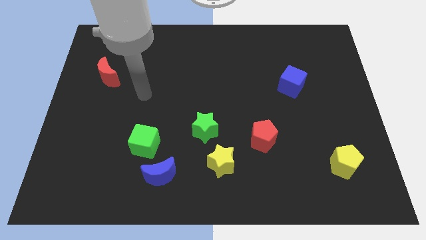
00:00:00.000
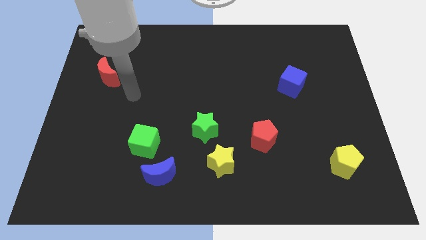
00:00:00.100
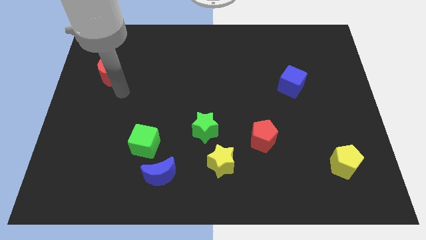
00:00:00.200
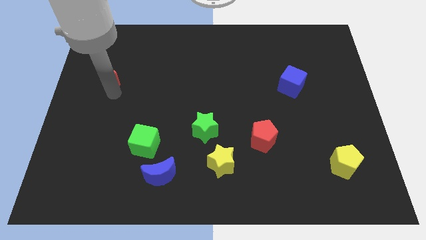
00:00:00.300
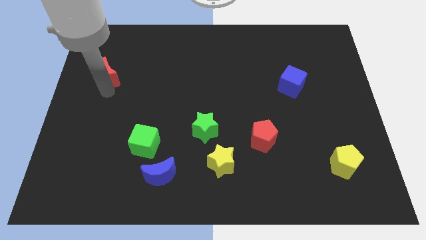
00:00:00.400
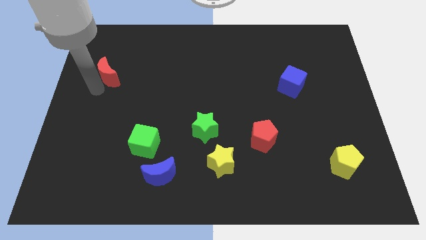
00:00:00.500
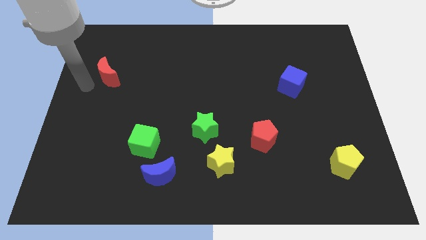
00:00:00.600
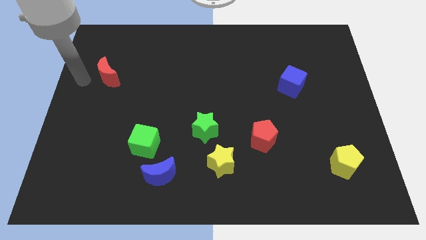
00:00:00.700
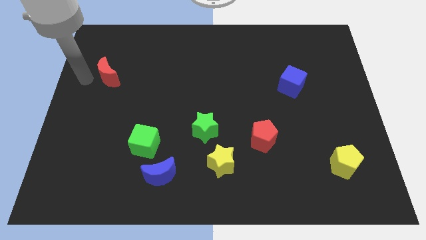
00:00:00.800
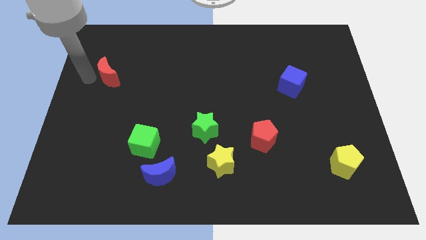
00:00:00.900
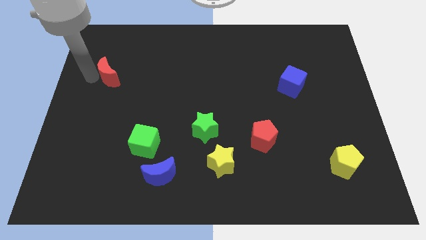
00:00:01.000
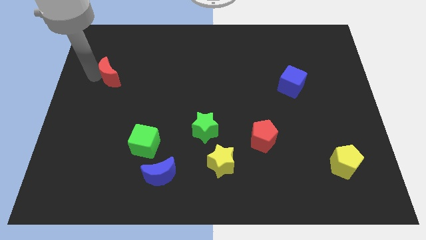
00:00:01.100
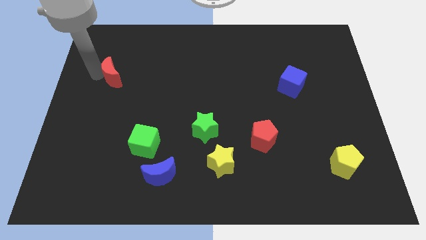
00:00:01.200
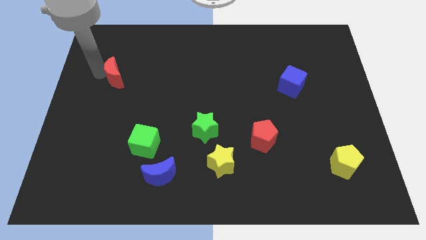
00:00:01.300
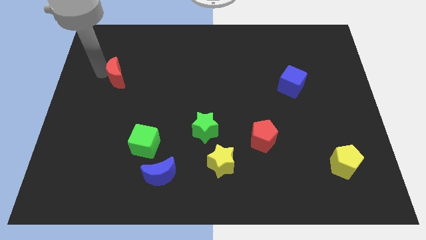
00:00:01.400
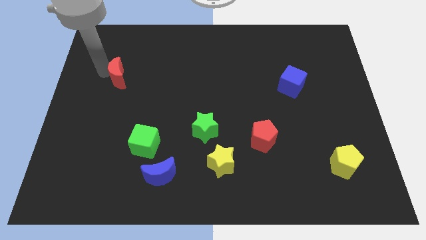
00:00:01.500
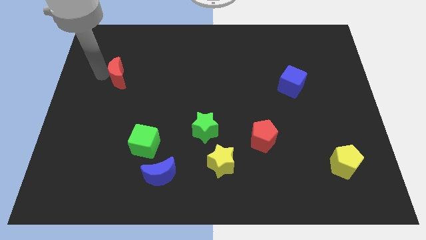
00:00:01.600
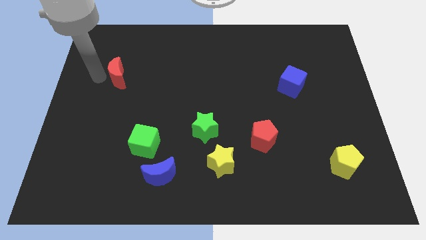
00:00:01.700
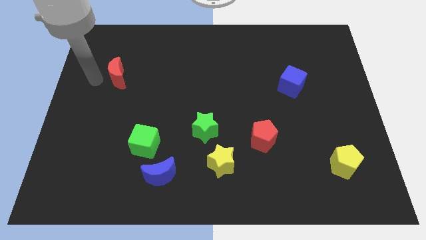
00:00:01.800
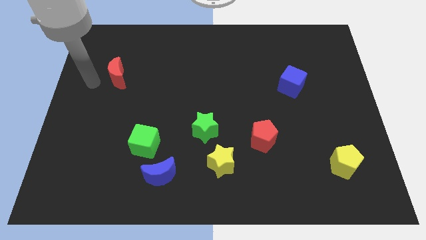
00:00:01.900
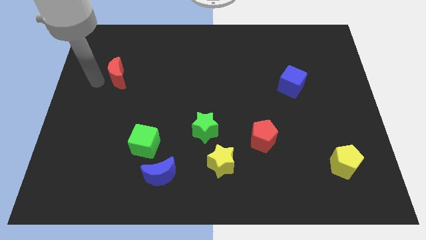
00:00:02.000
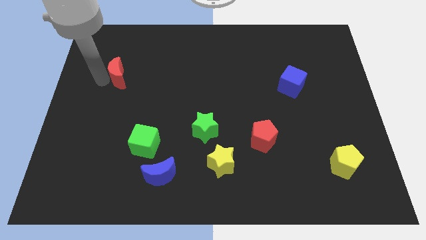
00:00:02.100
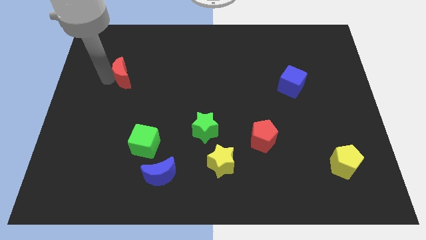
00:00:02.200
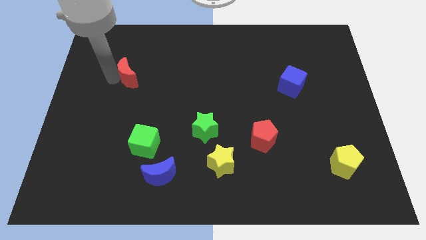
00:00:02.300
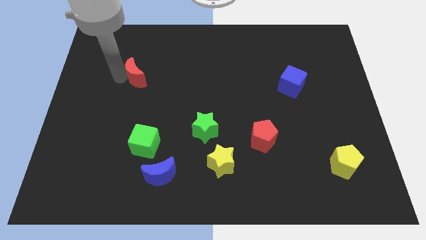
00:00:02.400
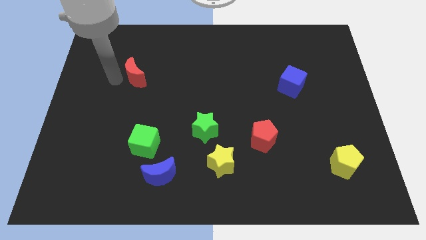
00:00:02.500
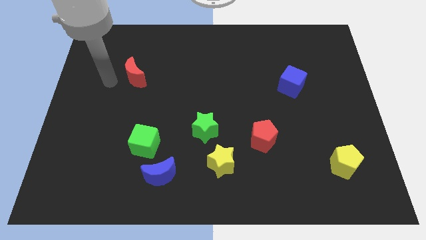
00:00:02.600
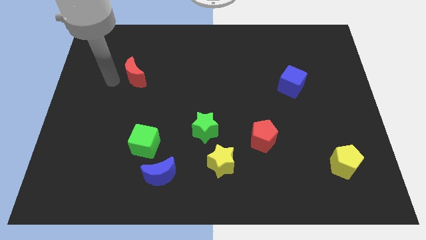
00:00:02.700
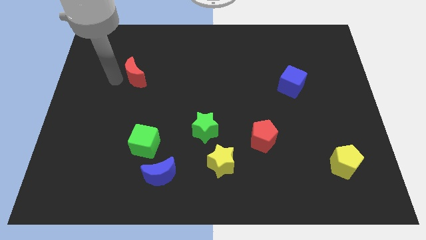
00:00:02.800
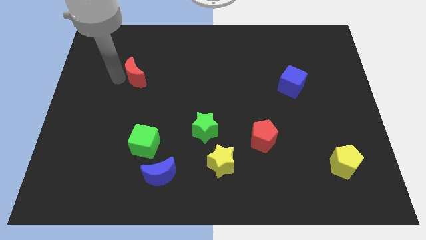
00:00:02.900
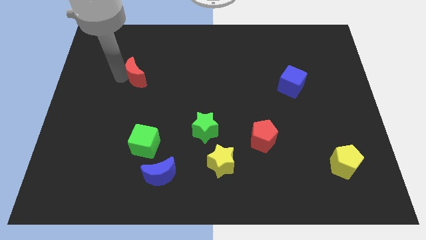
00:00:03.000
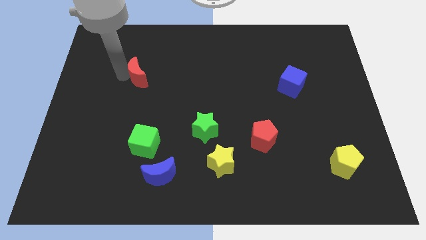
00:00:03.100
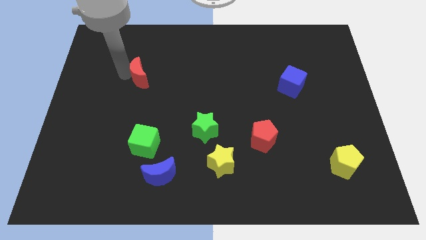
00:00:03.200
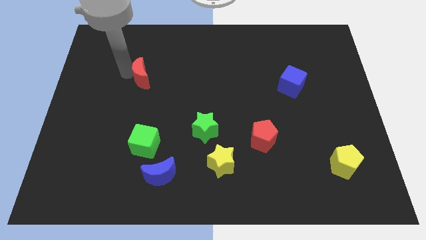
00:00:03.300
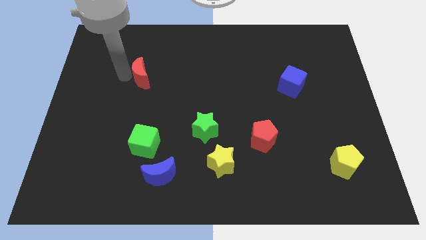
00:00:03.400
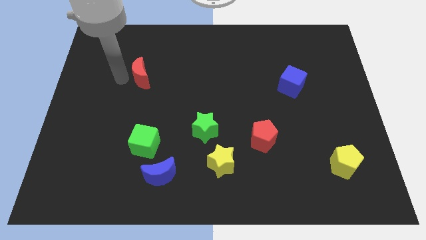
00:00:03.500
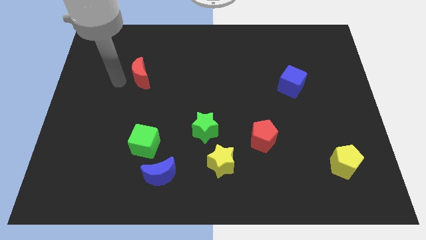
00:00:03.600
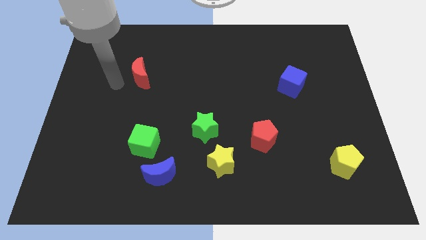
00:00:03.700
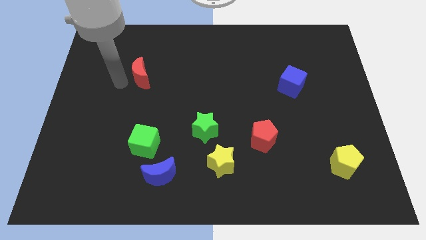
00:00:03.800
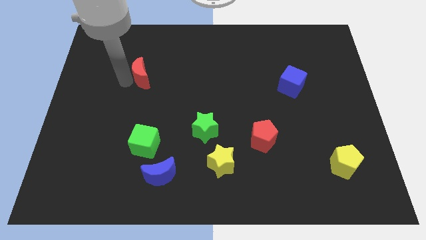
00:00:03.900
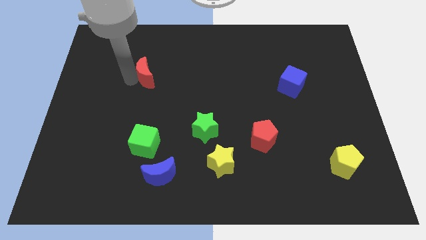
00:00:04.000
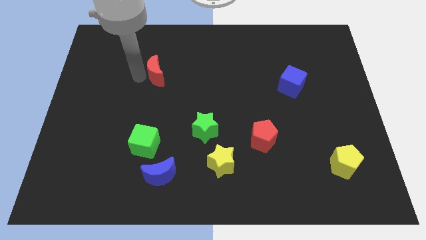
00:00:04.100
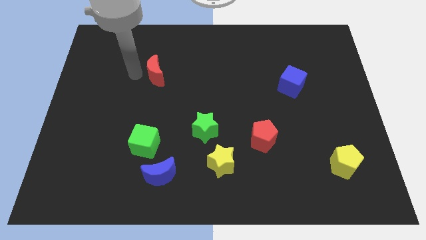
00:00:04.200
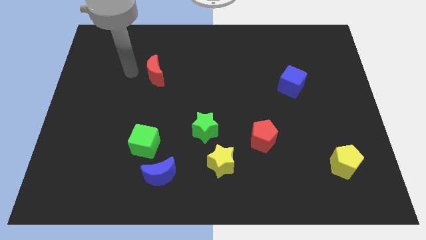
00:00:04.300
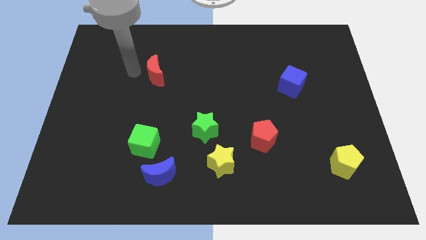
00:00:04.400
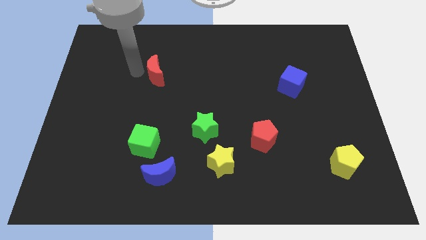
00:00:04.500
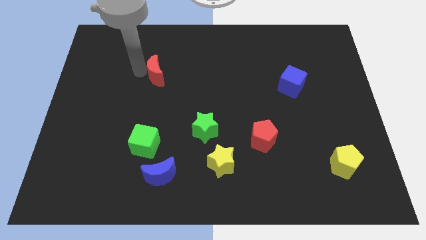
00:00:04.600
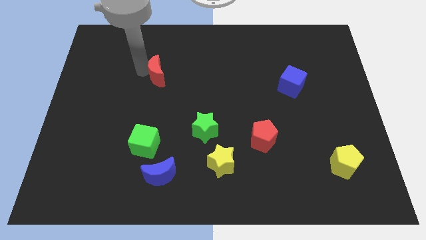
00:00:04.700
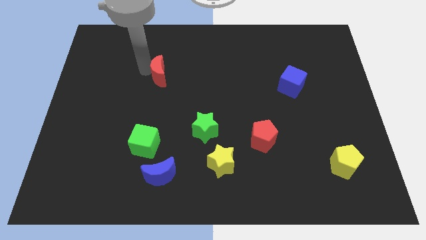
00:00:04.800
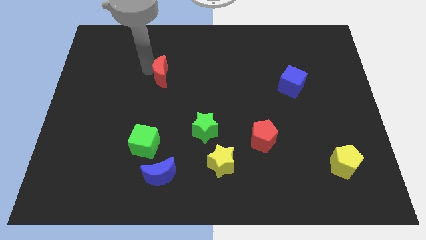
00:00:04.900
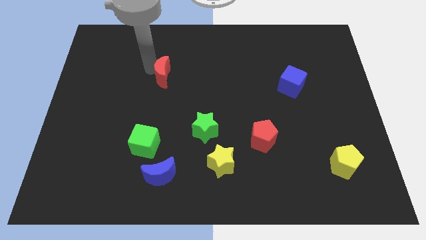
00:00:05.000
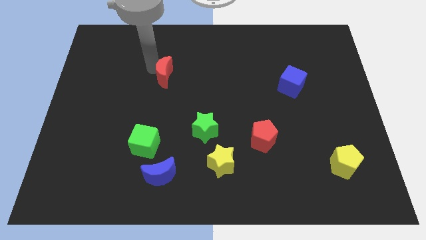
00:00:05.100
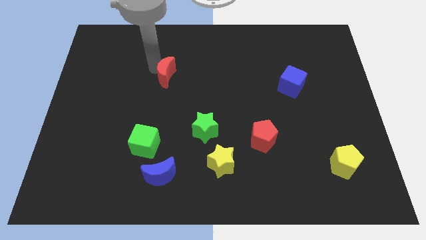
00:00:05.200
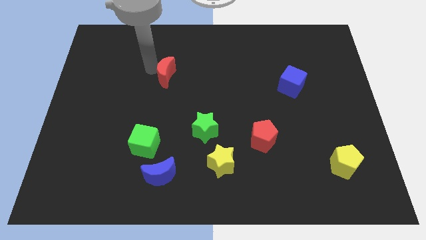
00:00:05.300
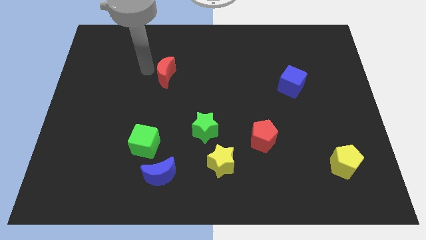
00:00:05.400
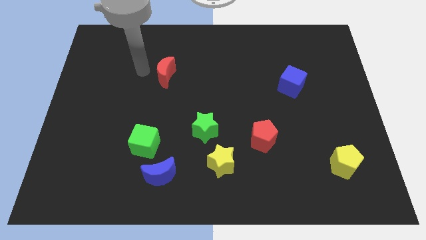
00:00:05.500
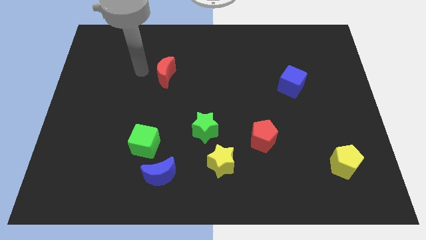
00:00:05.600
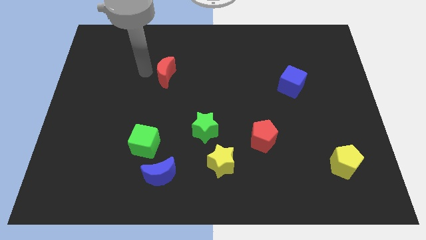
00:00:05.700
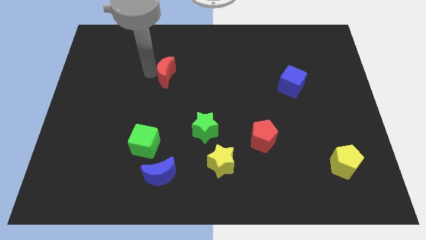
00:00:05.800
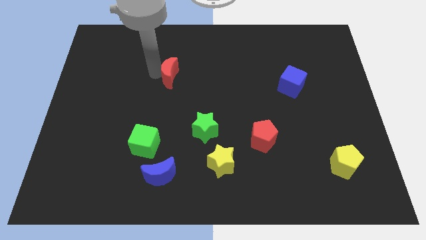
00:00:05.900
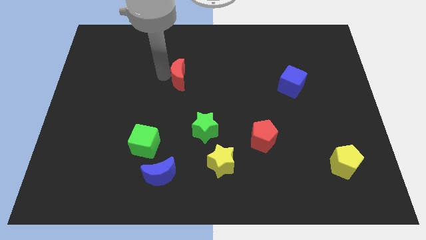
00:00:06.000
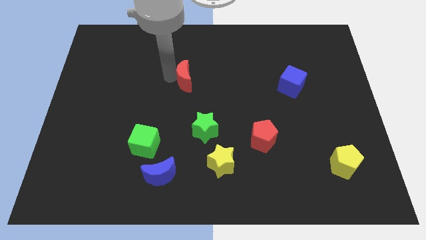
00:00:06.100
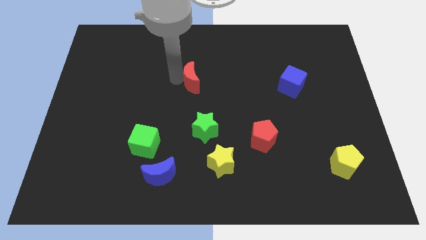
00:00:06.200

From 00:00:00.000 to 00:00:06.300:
slide the red moon to the right

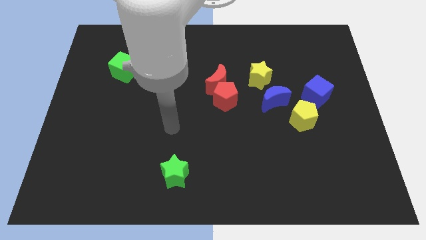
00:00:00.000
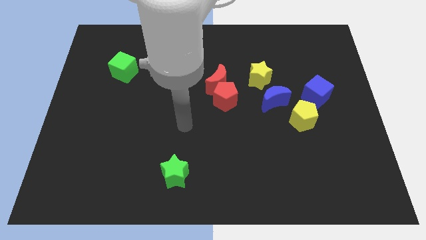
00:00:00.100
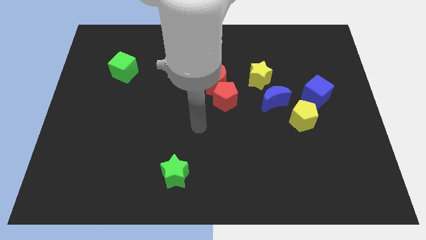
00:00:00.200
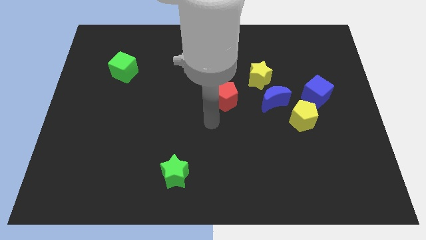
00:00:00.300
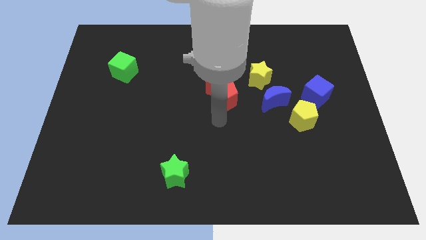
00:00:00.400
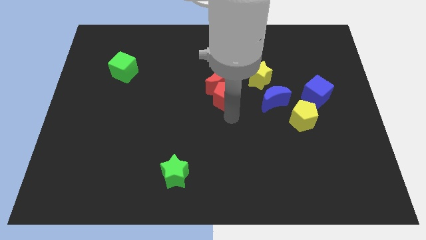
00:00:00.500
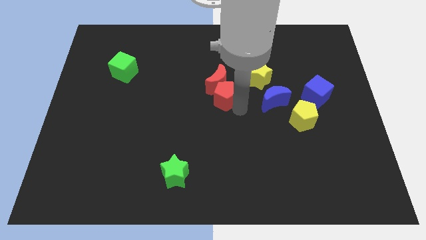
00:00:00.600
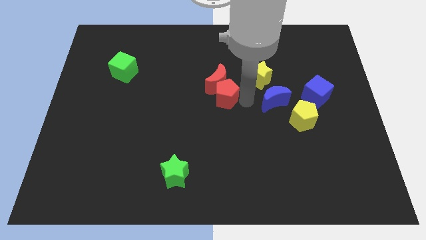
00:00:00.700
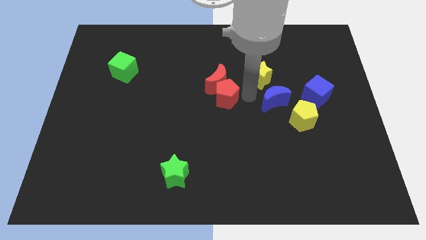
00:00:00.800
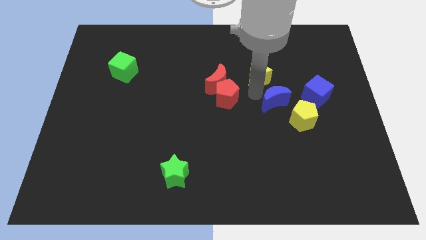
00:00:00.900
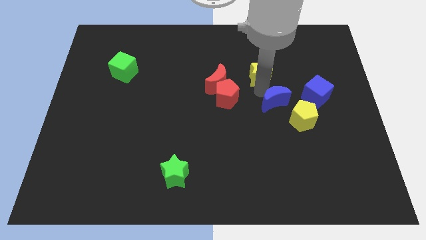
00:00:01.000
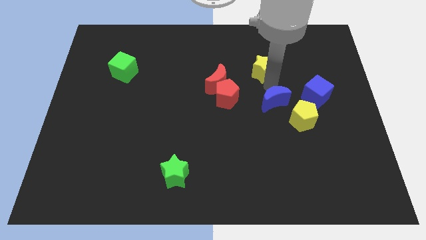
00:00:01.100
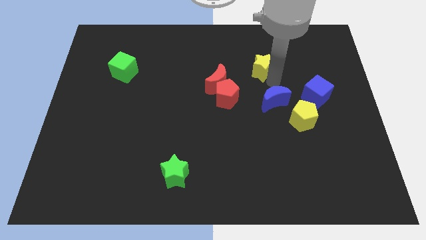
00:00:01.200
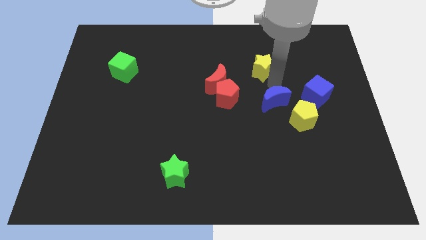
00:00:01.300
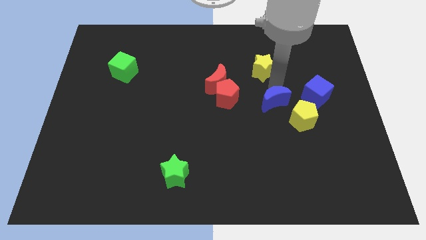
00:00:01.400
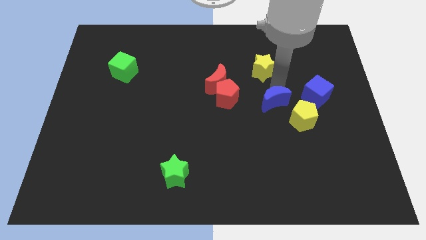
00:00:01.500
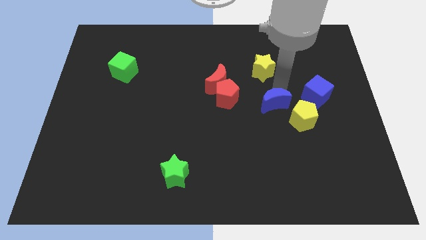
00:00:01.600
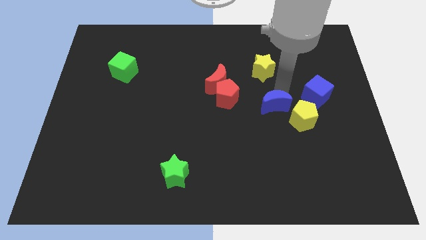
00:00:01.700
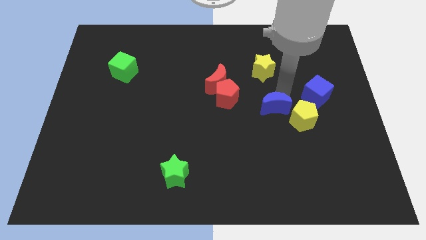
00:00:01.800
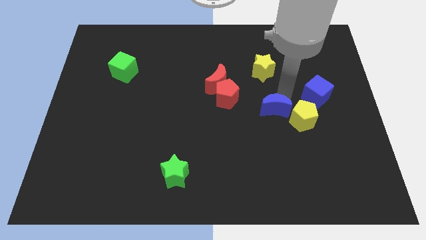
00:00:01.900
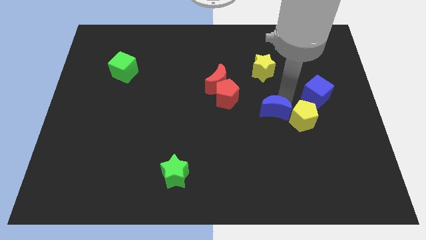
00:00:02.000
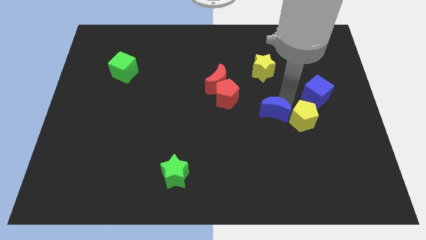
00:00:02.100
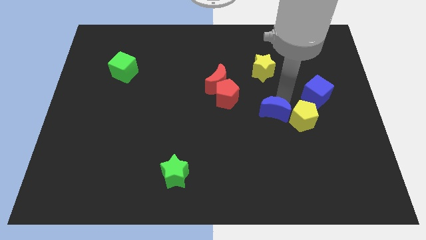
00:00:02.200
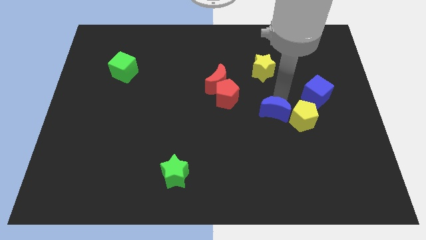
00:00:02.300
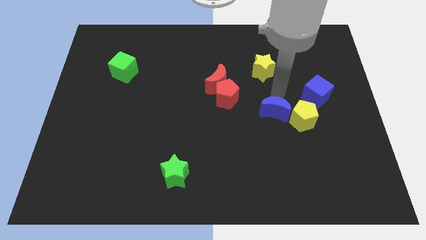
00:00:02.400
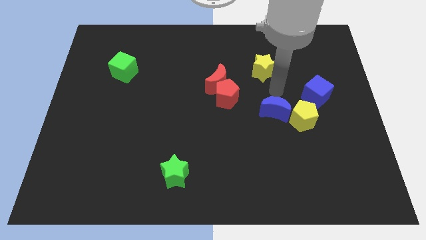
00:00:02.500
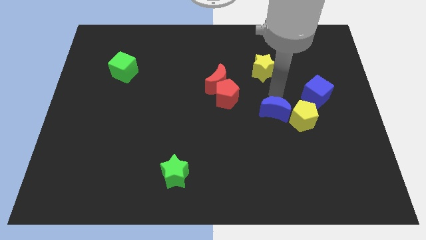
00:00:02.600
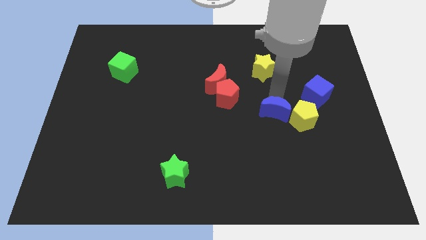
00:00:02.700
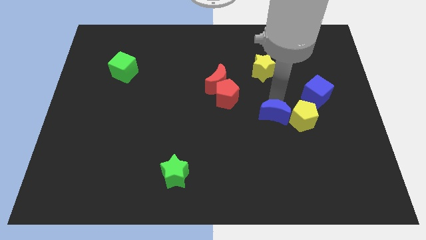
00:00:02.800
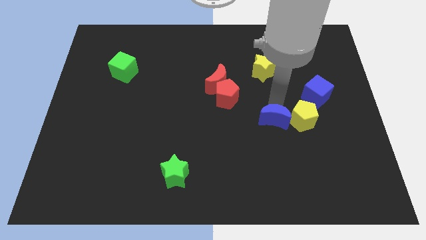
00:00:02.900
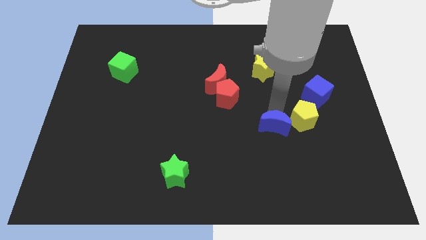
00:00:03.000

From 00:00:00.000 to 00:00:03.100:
push the blue moon slightly down
